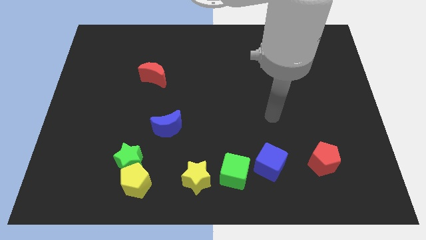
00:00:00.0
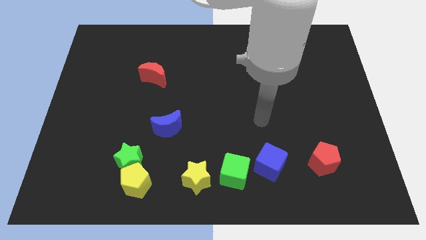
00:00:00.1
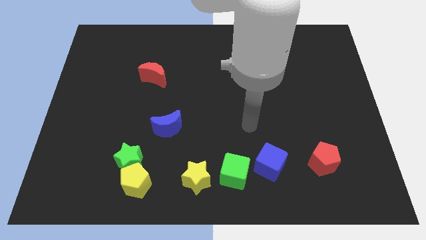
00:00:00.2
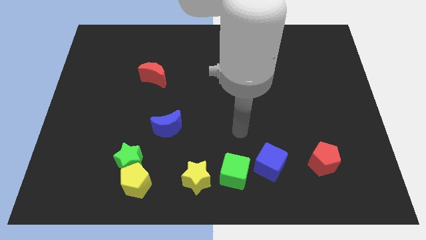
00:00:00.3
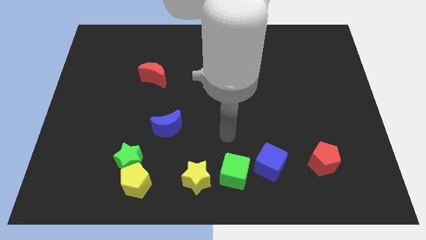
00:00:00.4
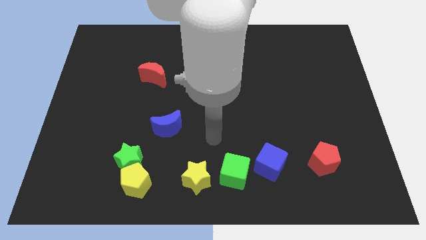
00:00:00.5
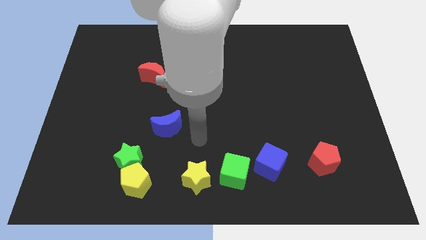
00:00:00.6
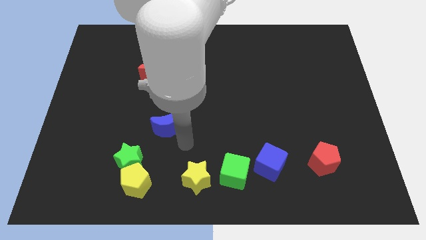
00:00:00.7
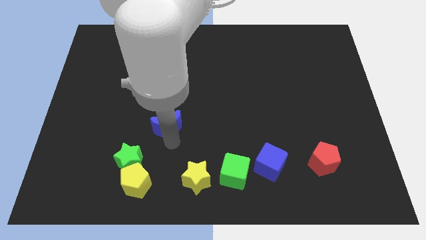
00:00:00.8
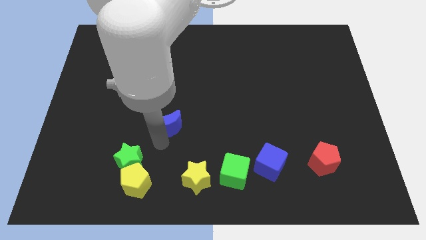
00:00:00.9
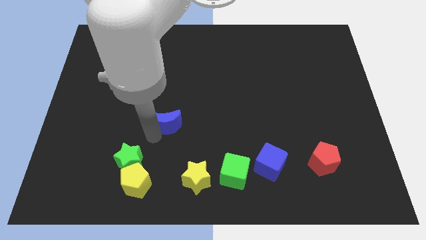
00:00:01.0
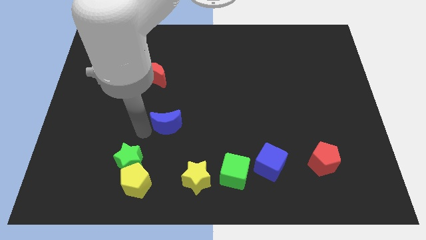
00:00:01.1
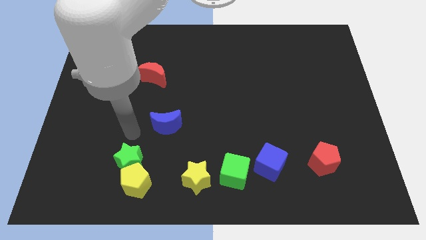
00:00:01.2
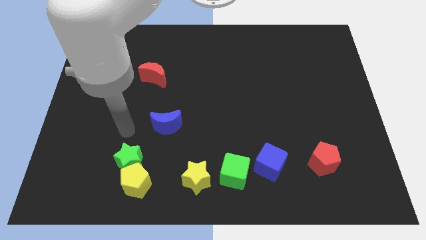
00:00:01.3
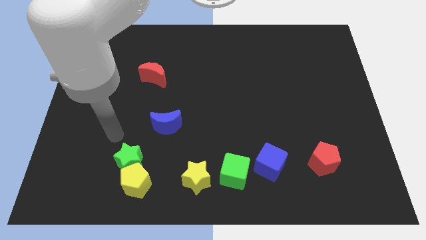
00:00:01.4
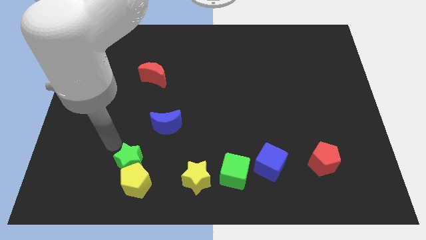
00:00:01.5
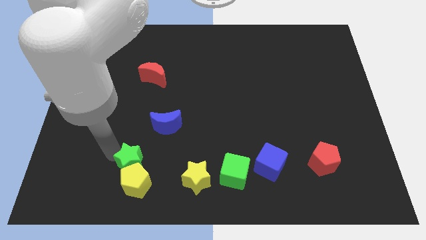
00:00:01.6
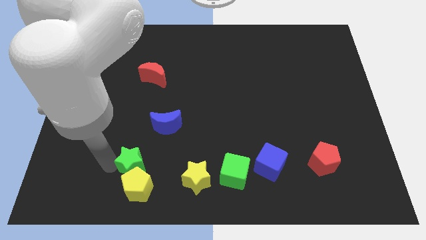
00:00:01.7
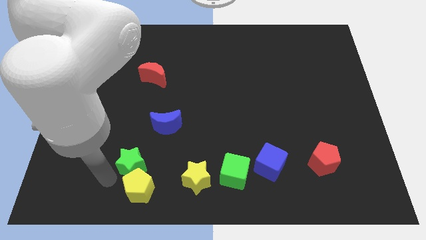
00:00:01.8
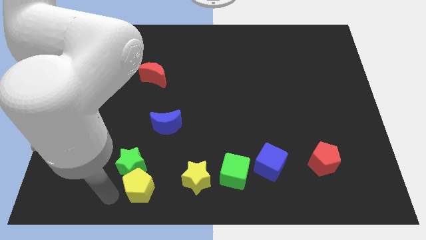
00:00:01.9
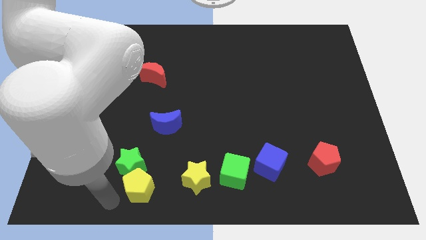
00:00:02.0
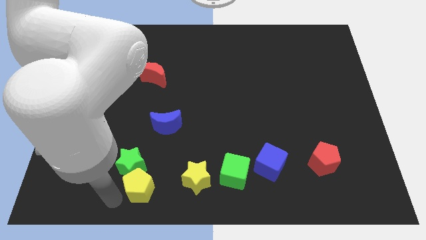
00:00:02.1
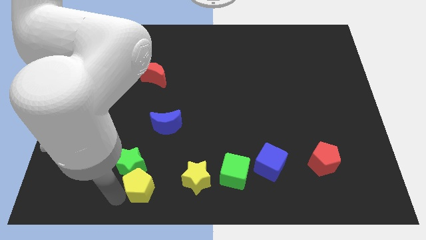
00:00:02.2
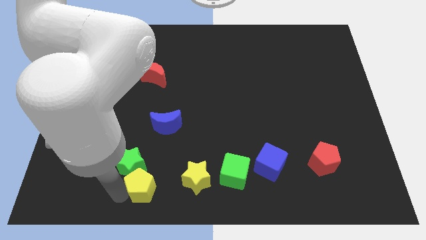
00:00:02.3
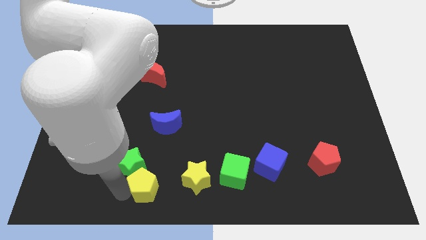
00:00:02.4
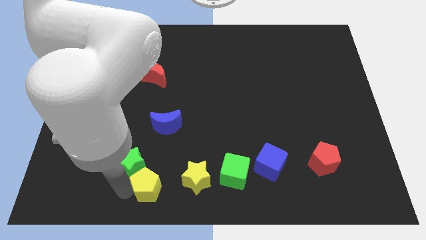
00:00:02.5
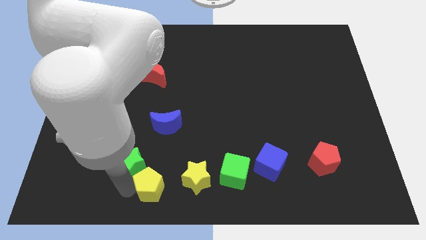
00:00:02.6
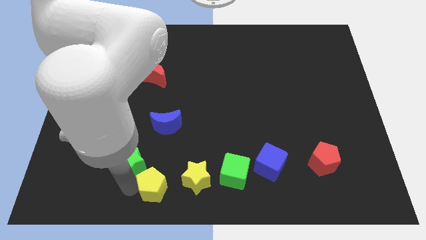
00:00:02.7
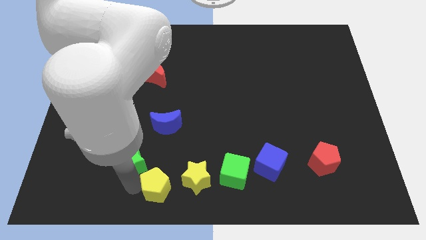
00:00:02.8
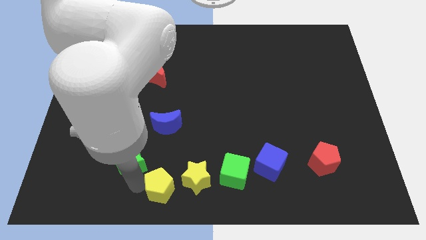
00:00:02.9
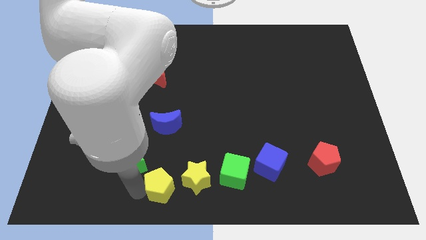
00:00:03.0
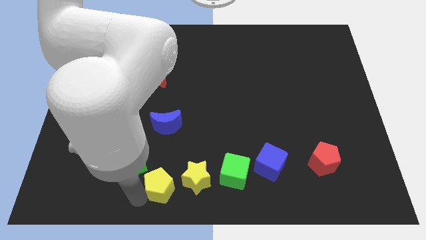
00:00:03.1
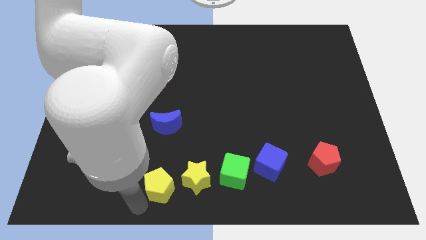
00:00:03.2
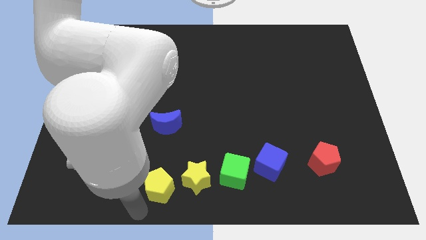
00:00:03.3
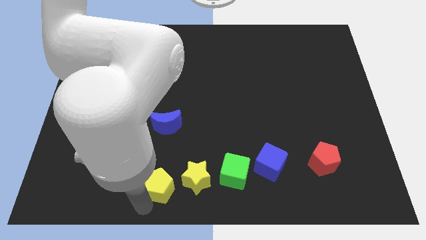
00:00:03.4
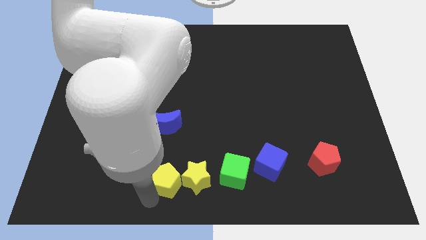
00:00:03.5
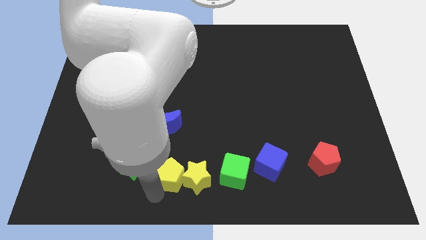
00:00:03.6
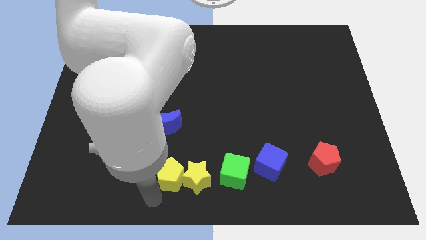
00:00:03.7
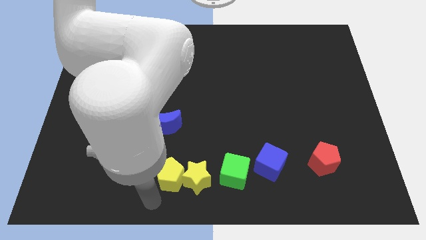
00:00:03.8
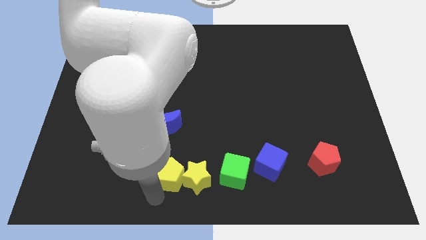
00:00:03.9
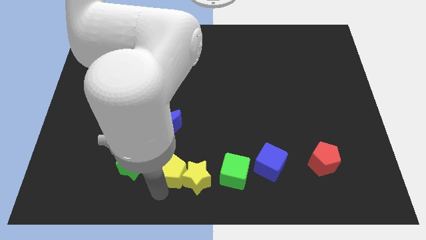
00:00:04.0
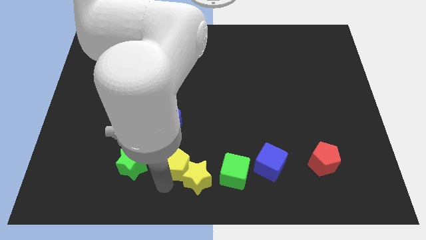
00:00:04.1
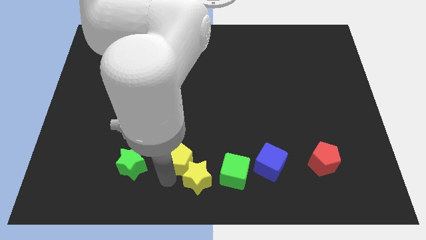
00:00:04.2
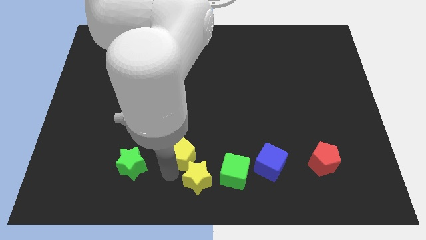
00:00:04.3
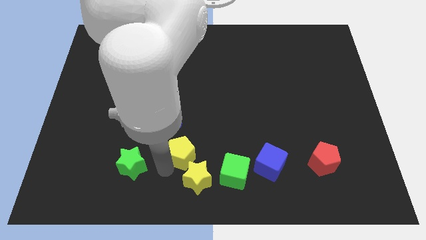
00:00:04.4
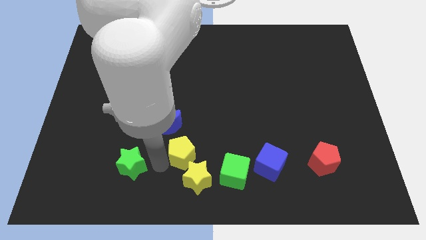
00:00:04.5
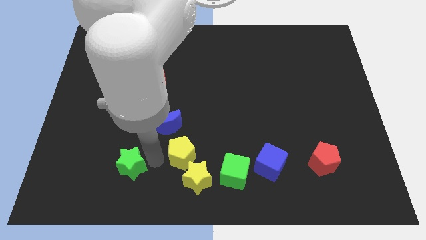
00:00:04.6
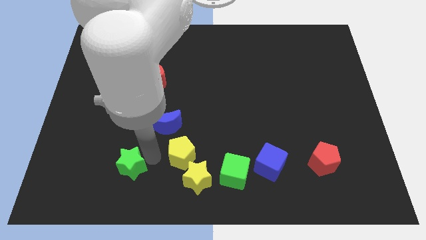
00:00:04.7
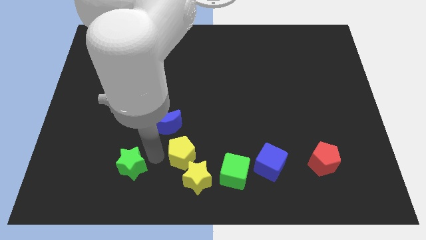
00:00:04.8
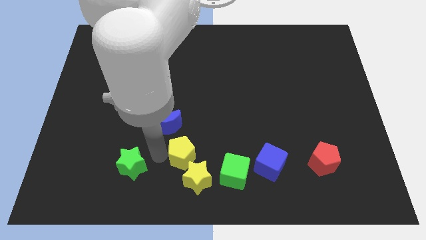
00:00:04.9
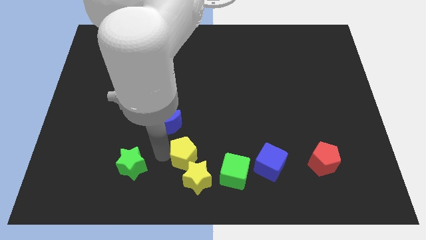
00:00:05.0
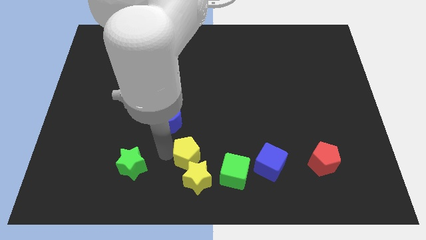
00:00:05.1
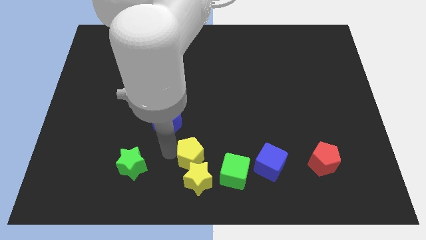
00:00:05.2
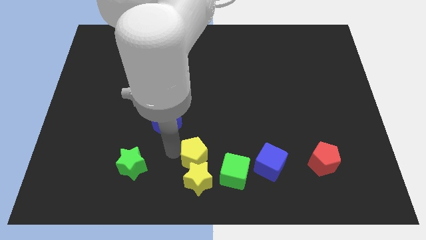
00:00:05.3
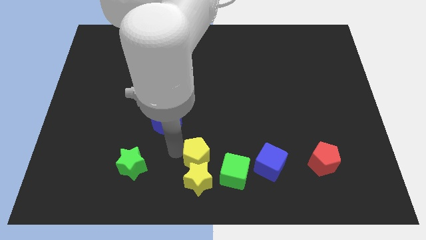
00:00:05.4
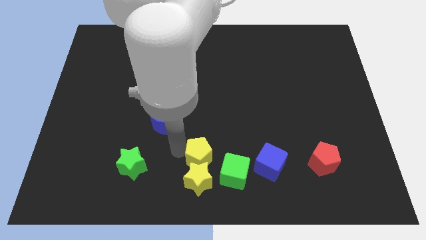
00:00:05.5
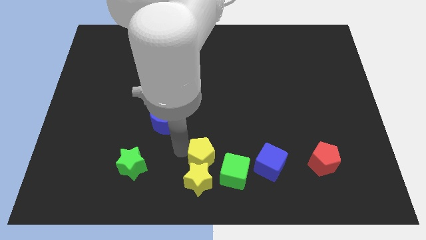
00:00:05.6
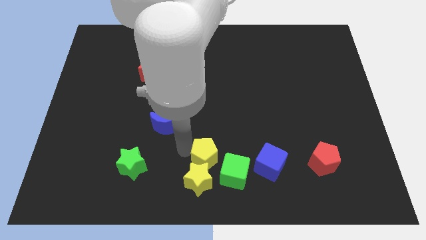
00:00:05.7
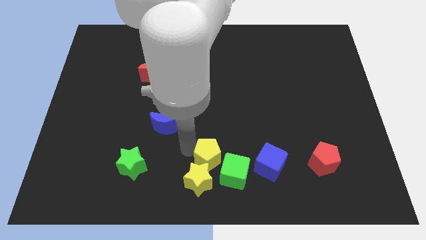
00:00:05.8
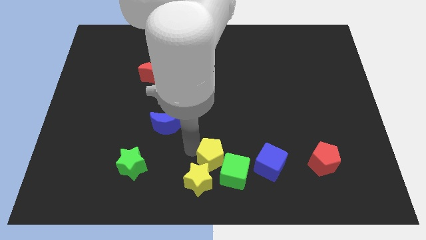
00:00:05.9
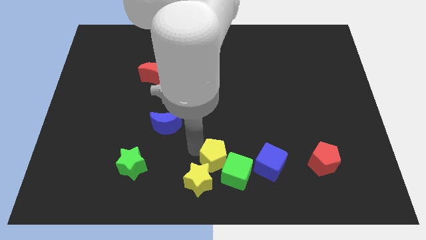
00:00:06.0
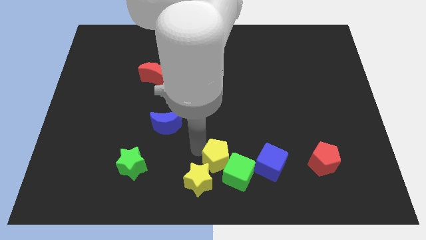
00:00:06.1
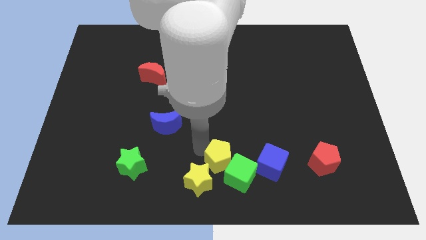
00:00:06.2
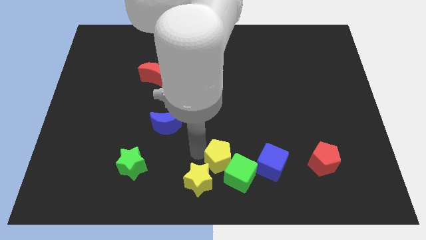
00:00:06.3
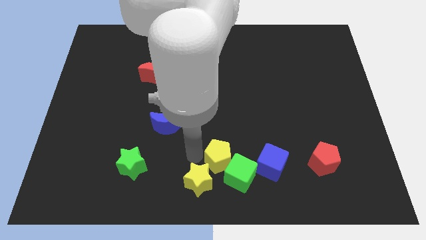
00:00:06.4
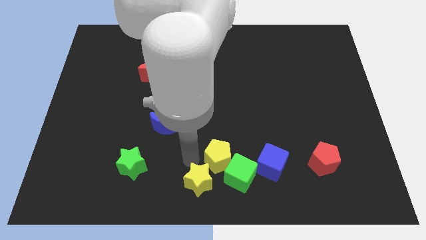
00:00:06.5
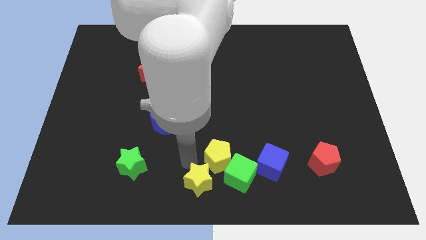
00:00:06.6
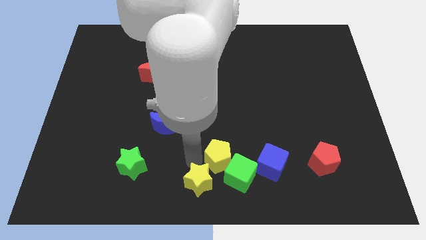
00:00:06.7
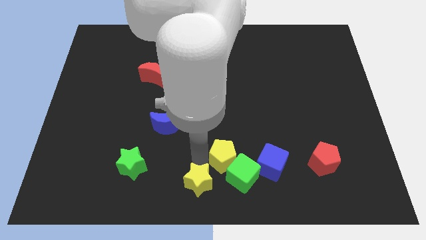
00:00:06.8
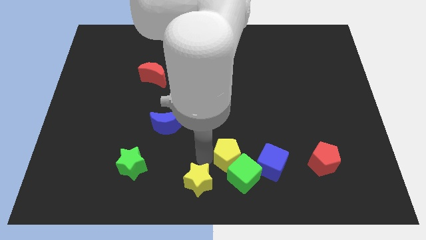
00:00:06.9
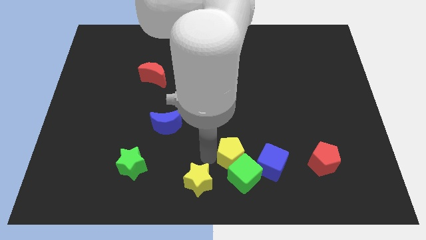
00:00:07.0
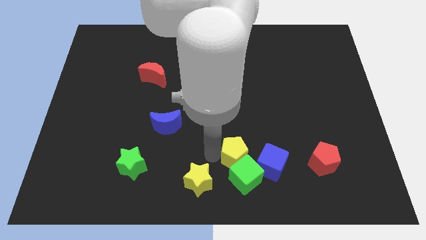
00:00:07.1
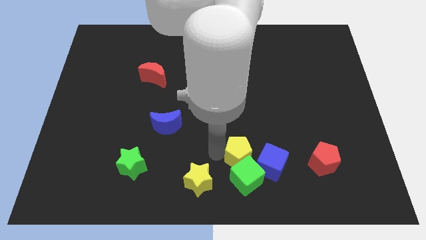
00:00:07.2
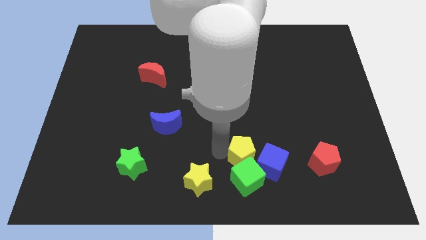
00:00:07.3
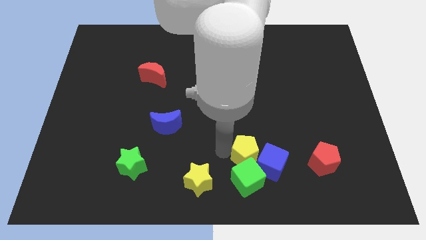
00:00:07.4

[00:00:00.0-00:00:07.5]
move the yellow pentagon to the blue cube
